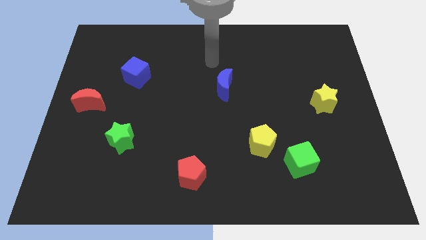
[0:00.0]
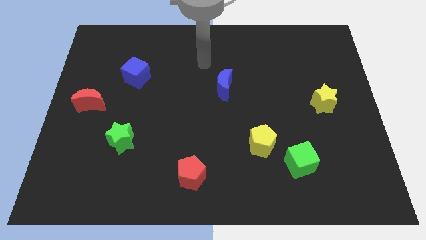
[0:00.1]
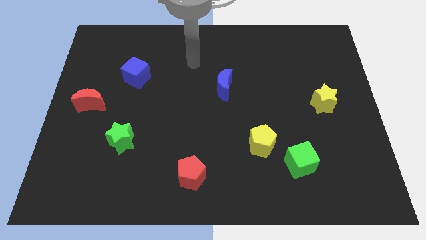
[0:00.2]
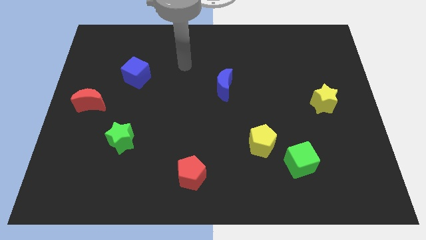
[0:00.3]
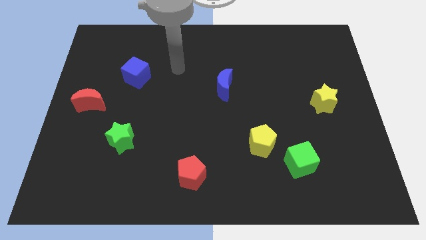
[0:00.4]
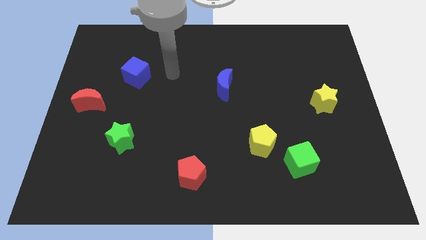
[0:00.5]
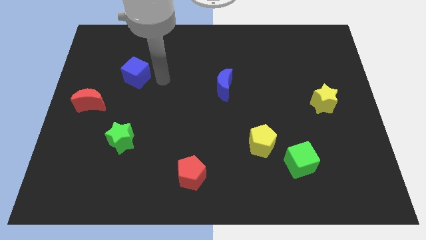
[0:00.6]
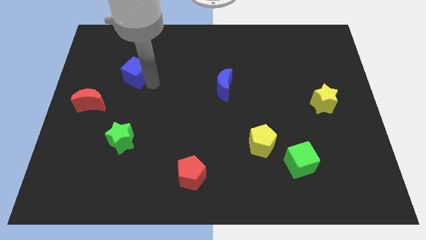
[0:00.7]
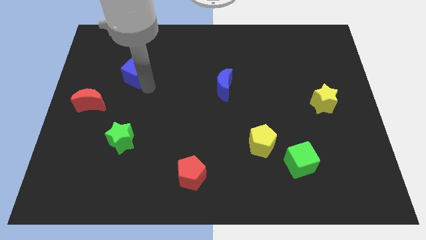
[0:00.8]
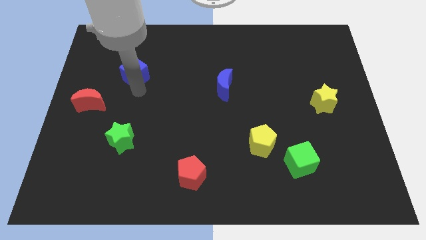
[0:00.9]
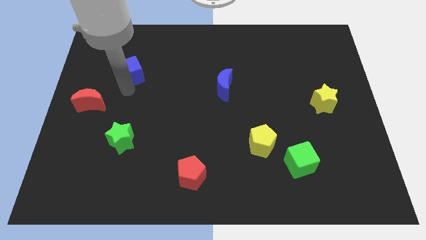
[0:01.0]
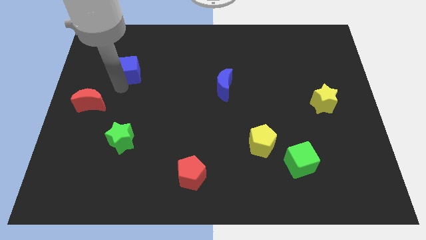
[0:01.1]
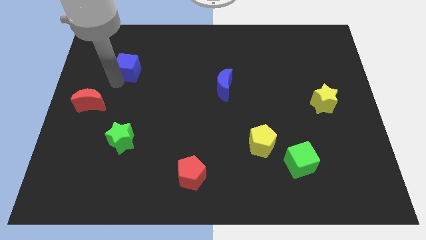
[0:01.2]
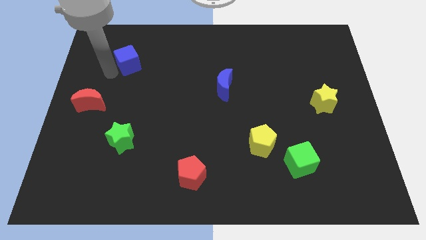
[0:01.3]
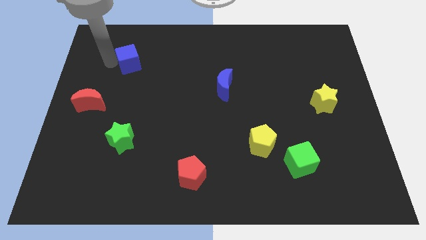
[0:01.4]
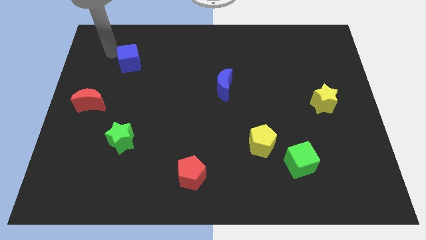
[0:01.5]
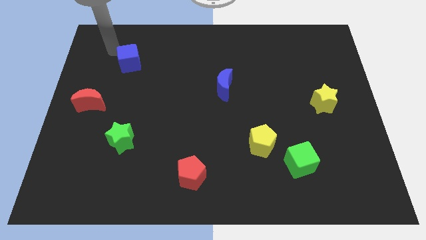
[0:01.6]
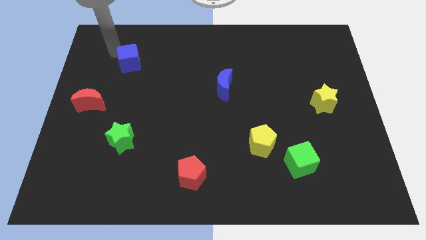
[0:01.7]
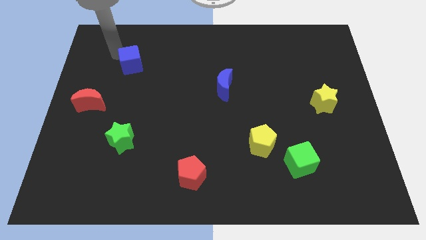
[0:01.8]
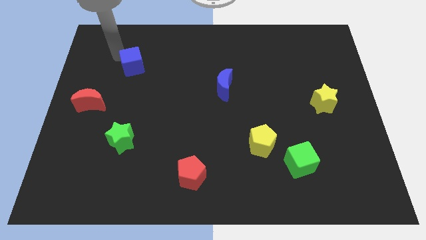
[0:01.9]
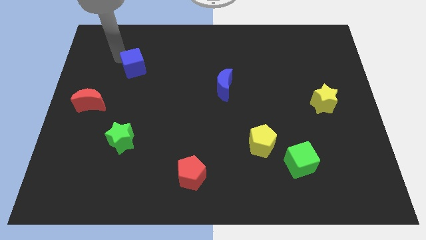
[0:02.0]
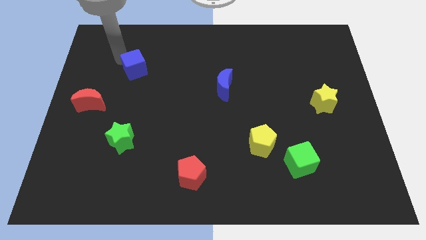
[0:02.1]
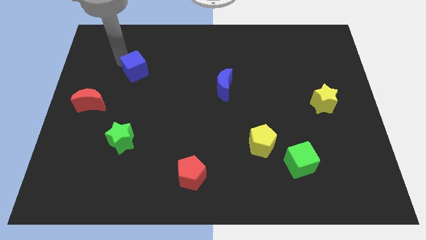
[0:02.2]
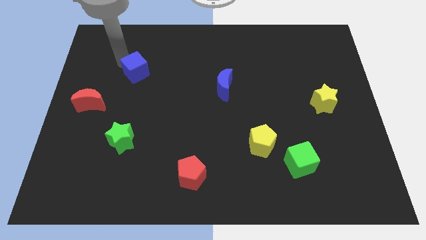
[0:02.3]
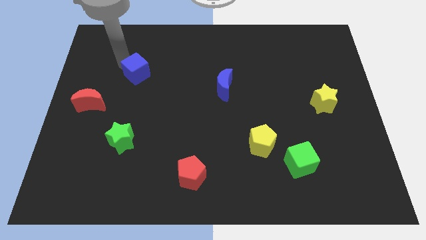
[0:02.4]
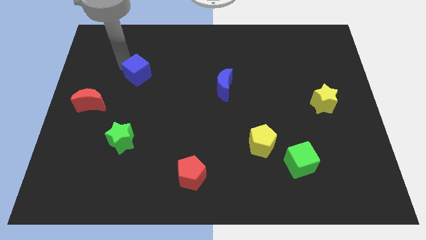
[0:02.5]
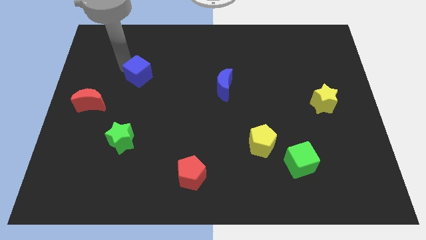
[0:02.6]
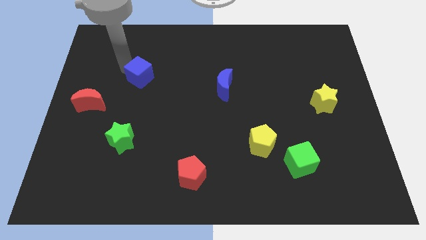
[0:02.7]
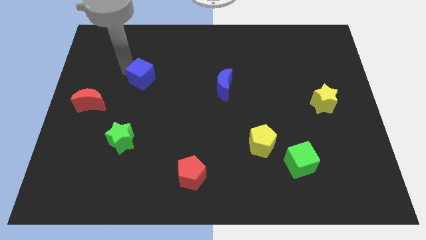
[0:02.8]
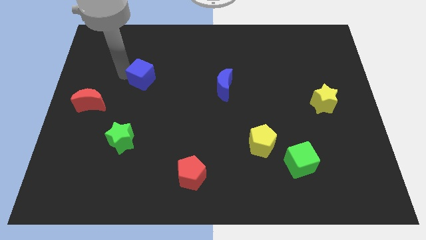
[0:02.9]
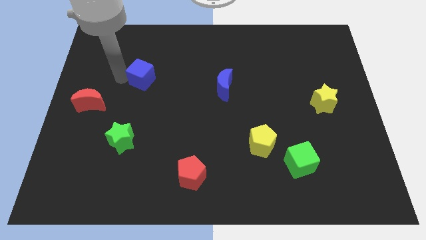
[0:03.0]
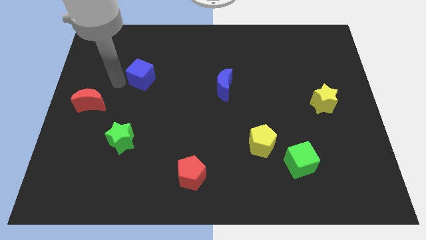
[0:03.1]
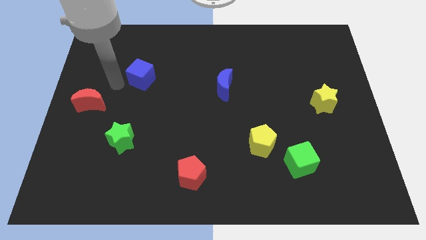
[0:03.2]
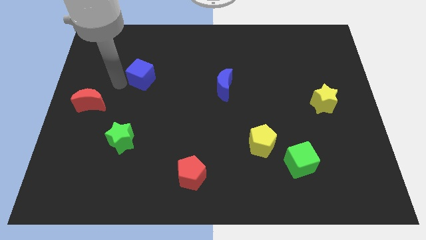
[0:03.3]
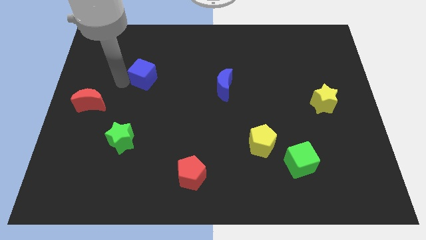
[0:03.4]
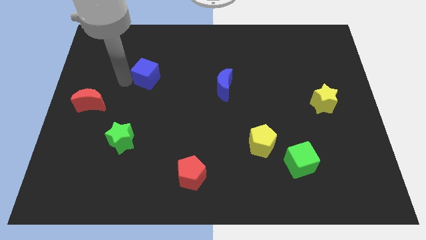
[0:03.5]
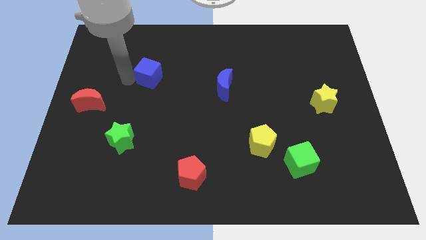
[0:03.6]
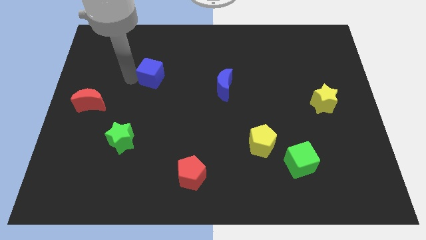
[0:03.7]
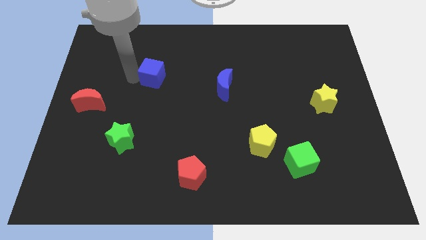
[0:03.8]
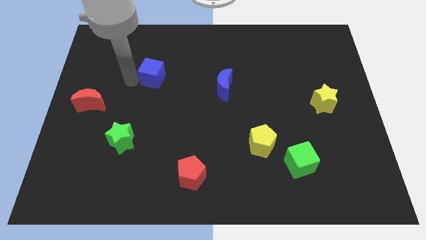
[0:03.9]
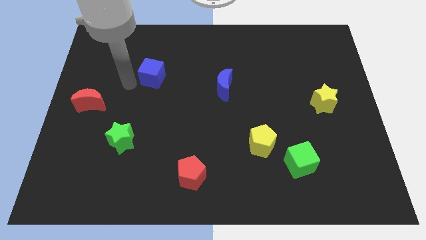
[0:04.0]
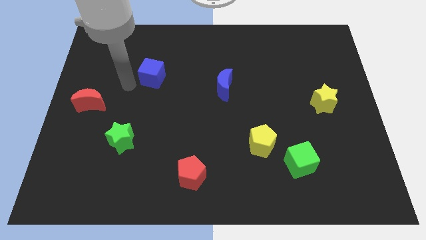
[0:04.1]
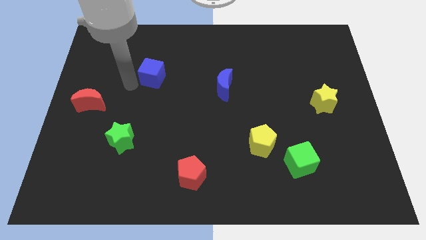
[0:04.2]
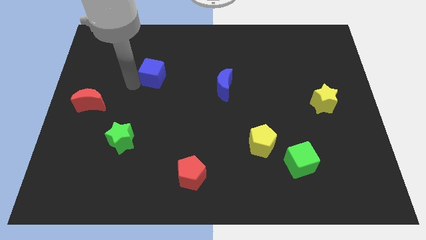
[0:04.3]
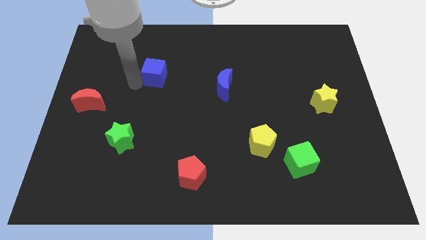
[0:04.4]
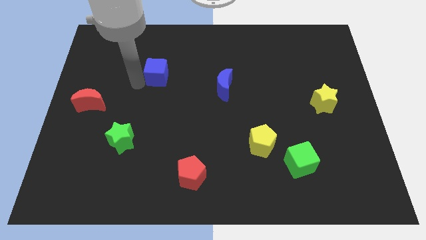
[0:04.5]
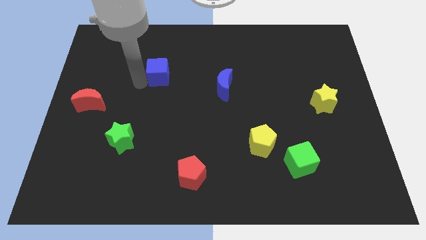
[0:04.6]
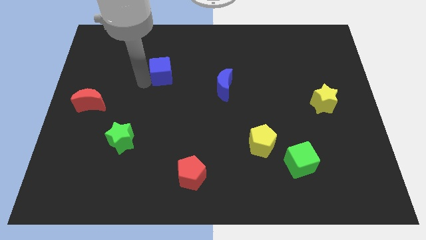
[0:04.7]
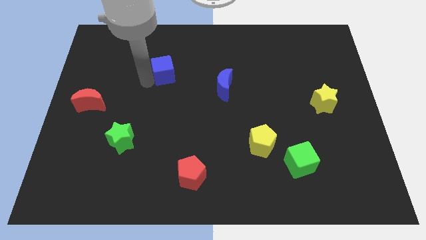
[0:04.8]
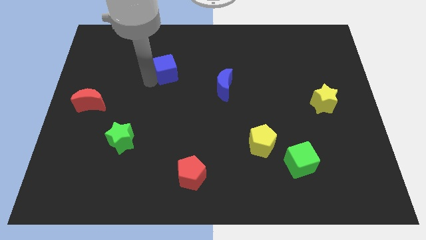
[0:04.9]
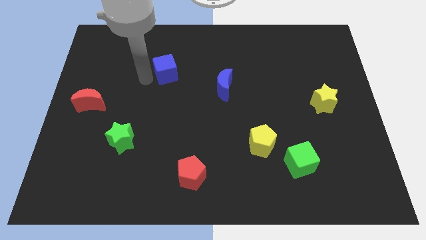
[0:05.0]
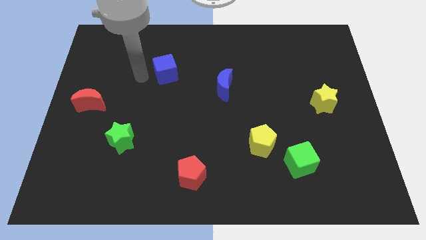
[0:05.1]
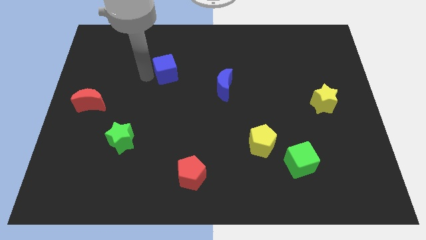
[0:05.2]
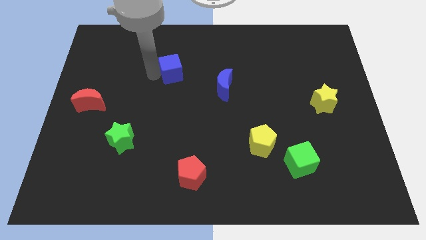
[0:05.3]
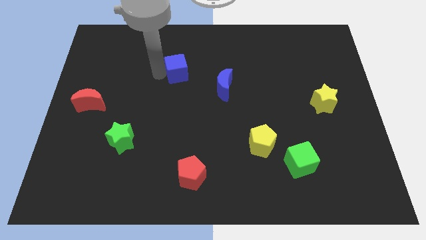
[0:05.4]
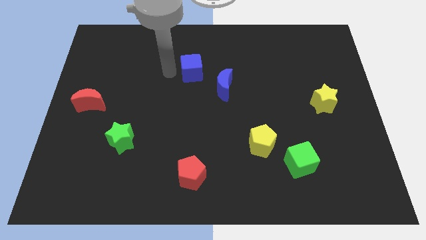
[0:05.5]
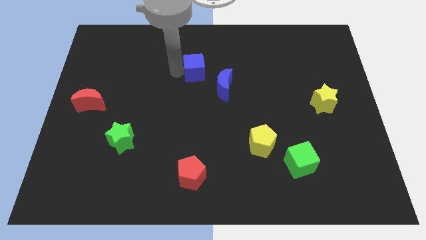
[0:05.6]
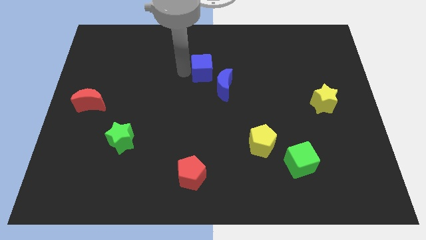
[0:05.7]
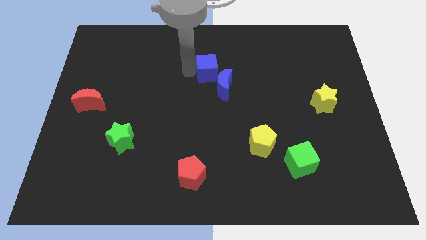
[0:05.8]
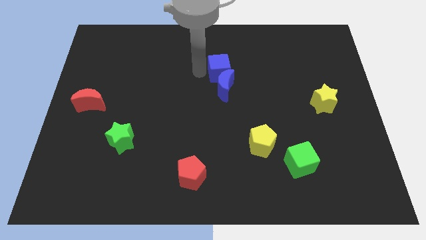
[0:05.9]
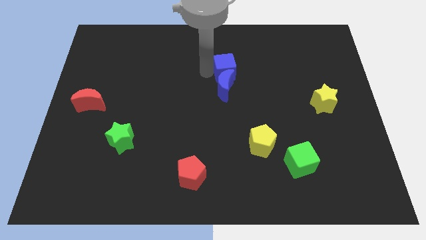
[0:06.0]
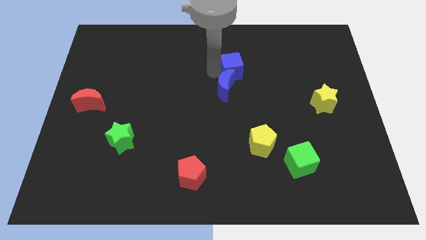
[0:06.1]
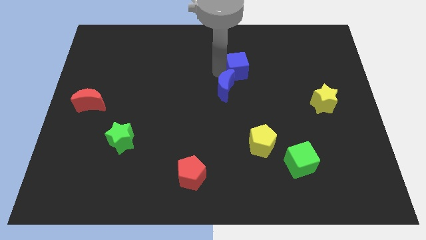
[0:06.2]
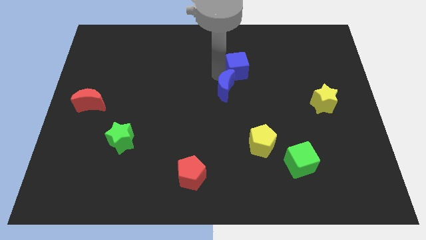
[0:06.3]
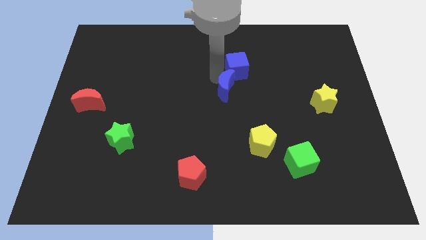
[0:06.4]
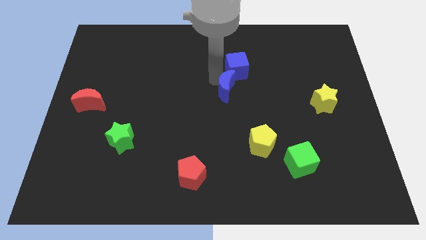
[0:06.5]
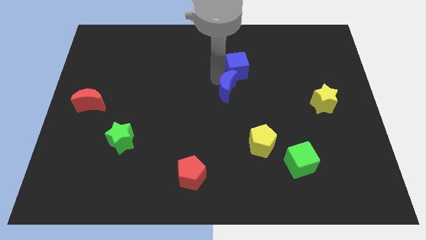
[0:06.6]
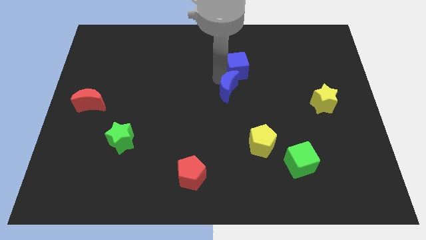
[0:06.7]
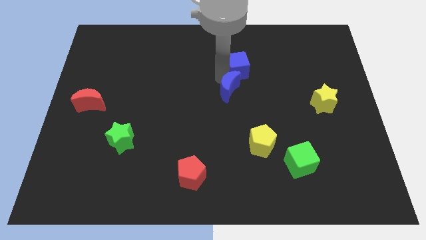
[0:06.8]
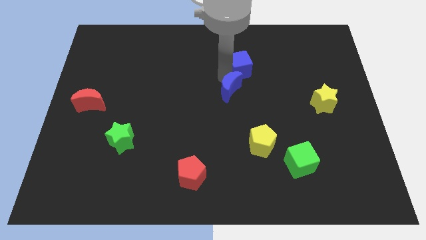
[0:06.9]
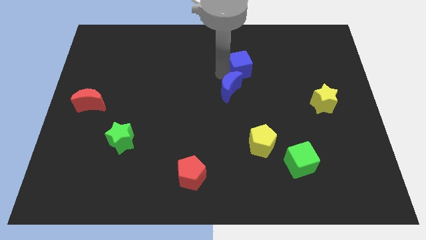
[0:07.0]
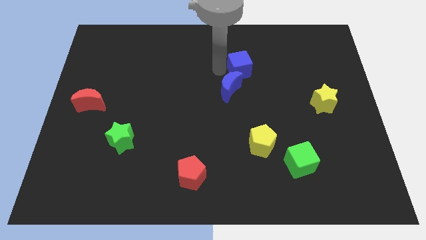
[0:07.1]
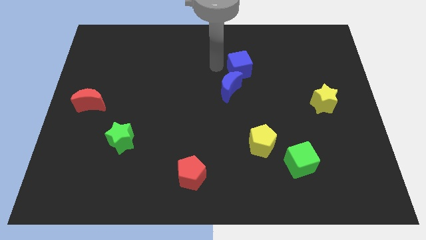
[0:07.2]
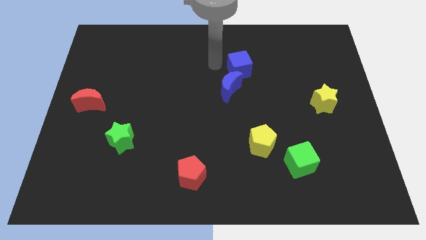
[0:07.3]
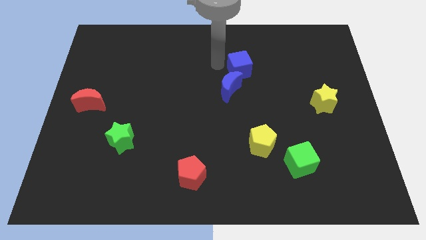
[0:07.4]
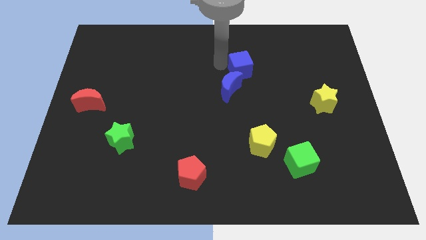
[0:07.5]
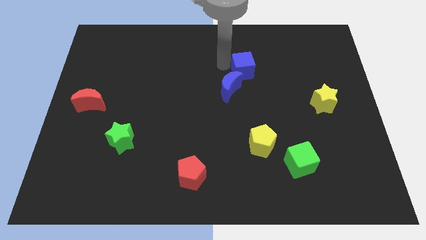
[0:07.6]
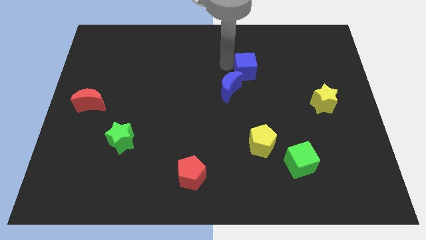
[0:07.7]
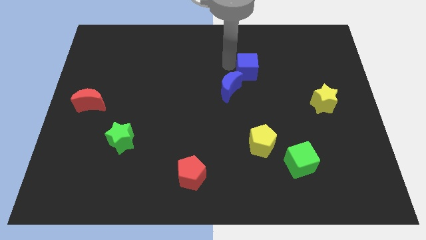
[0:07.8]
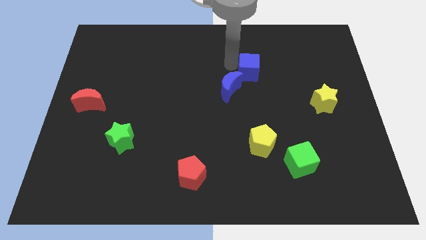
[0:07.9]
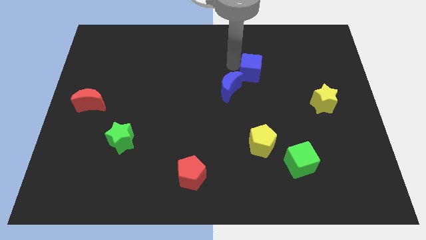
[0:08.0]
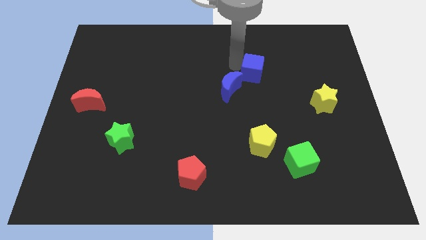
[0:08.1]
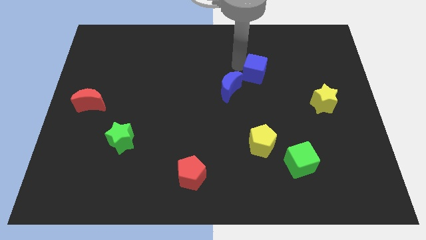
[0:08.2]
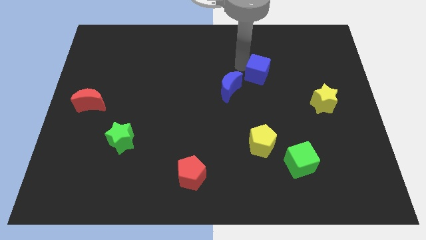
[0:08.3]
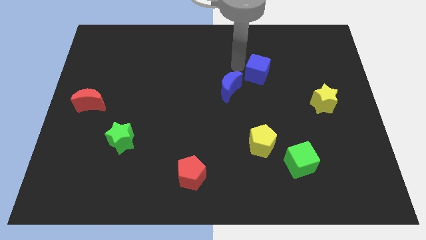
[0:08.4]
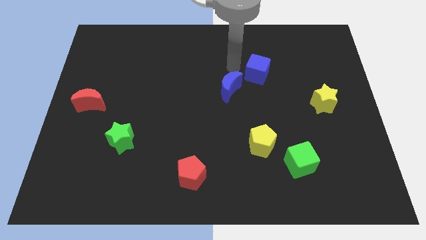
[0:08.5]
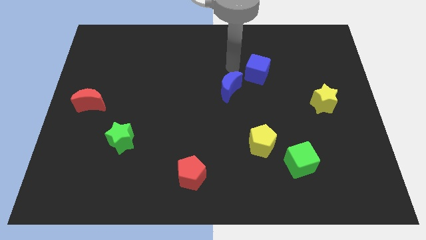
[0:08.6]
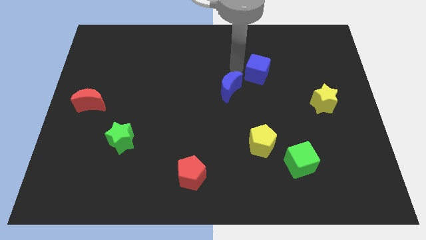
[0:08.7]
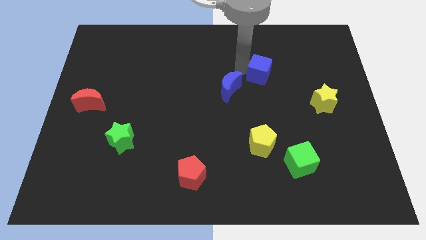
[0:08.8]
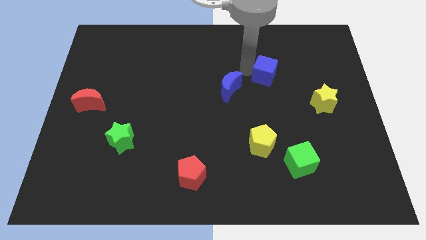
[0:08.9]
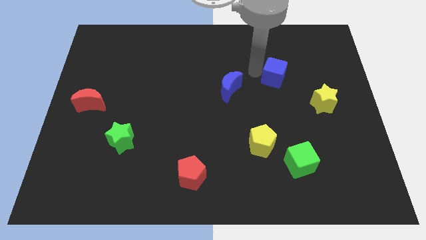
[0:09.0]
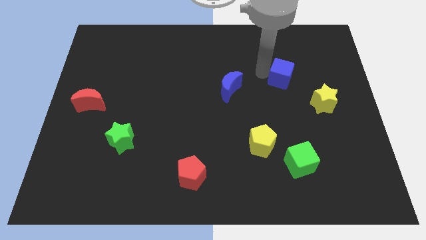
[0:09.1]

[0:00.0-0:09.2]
move the blue cube to the top left side of the yellow star
